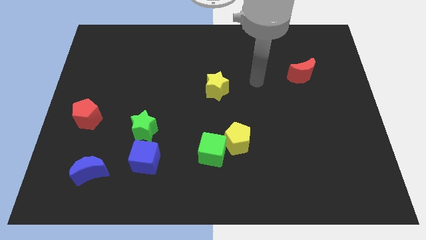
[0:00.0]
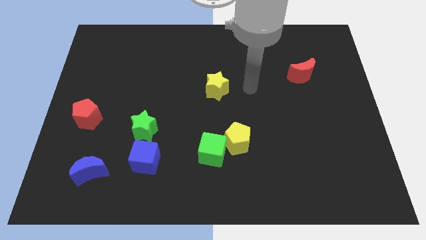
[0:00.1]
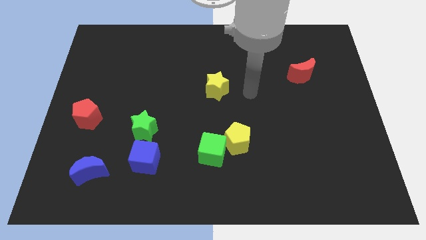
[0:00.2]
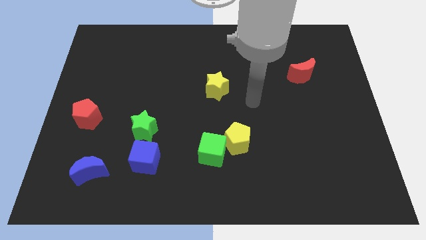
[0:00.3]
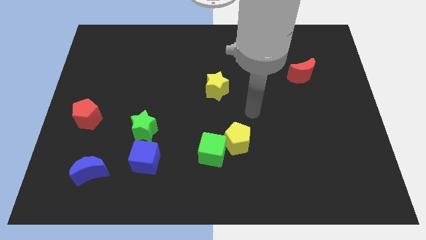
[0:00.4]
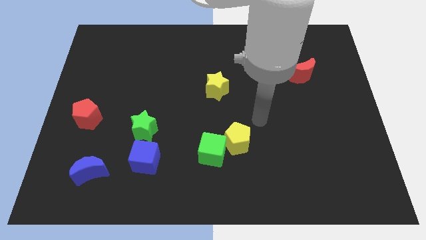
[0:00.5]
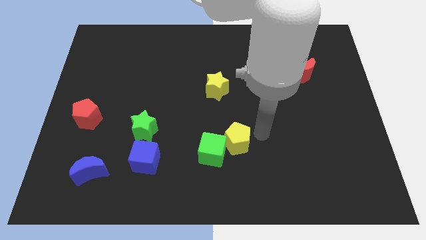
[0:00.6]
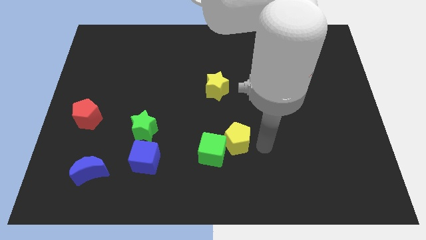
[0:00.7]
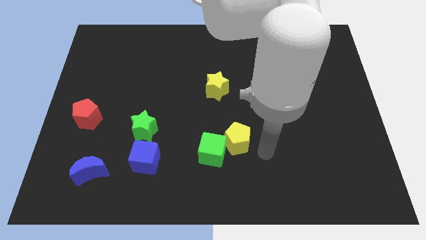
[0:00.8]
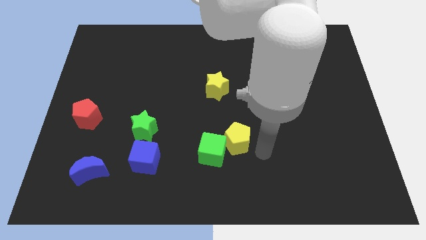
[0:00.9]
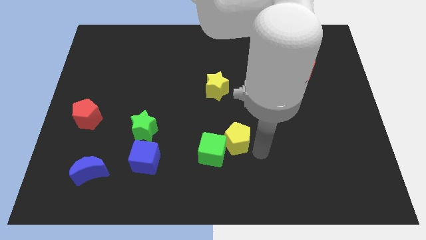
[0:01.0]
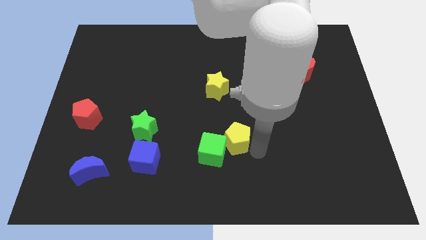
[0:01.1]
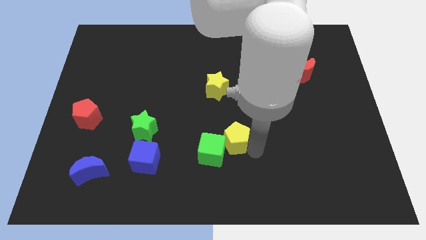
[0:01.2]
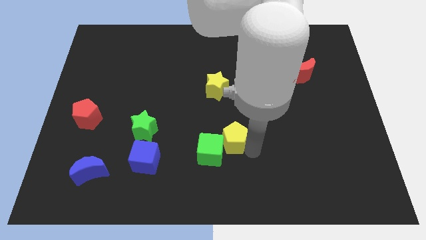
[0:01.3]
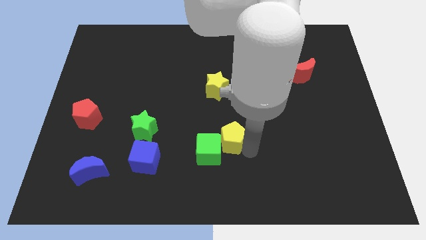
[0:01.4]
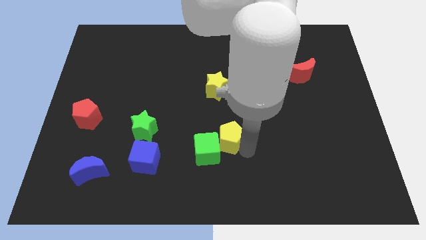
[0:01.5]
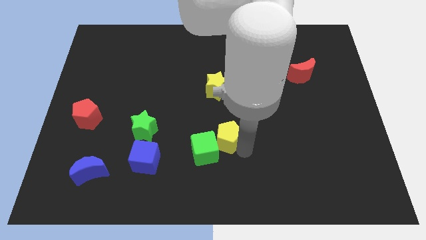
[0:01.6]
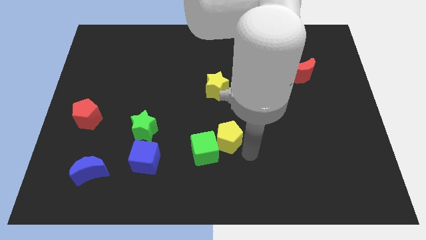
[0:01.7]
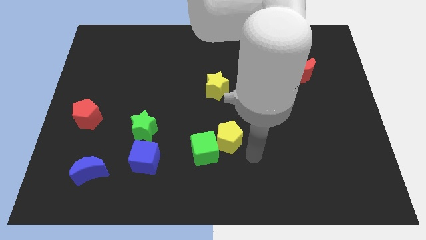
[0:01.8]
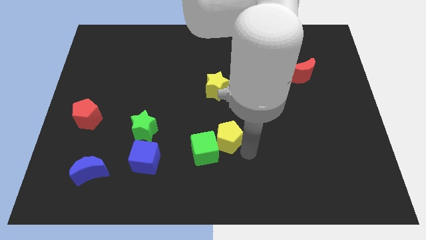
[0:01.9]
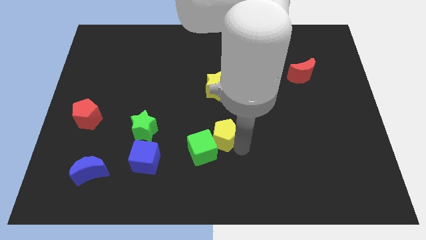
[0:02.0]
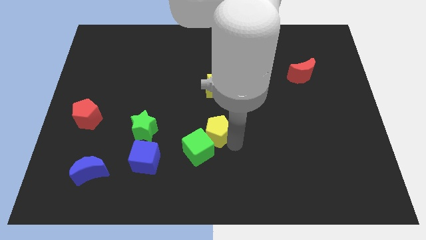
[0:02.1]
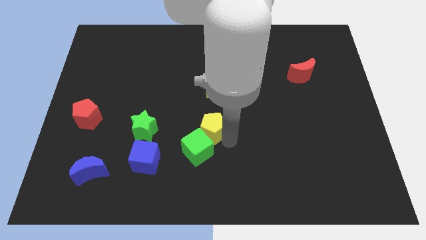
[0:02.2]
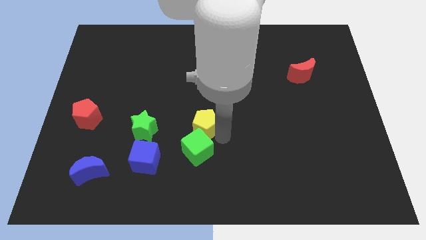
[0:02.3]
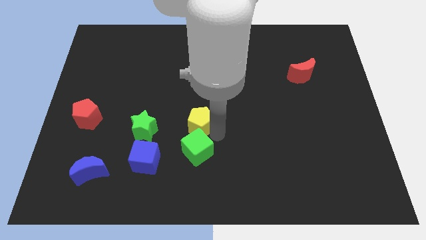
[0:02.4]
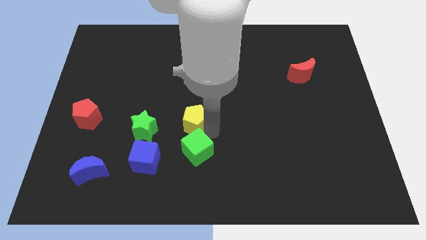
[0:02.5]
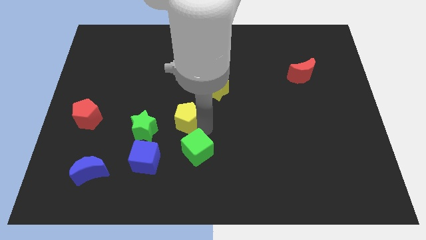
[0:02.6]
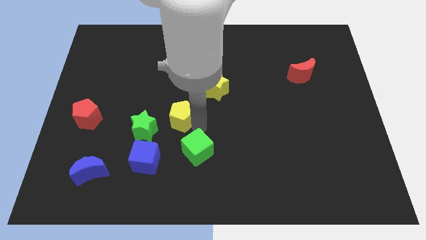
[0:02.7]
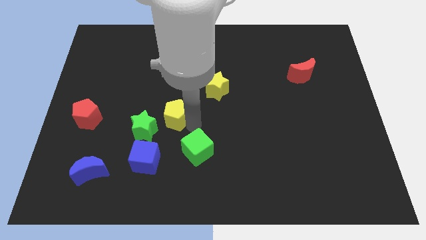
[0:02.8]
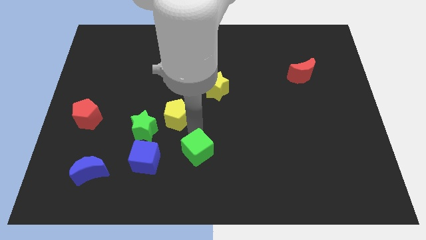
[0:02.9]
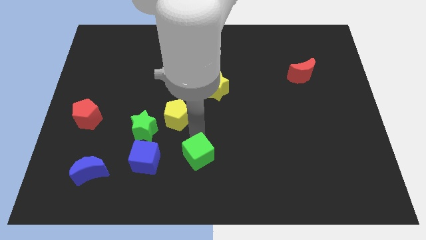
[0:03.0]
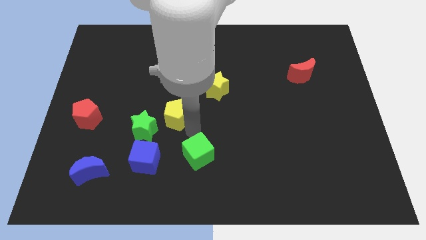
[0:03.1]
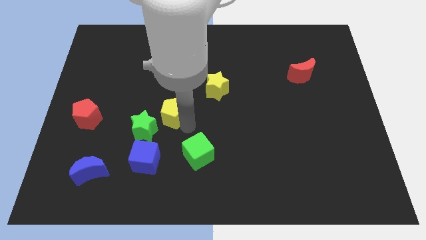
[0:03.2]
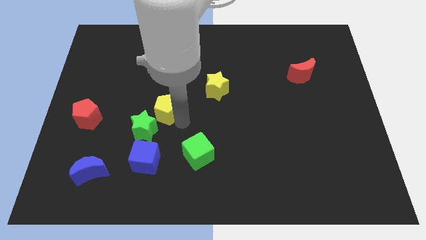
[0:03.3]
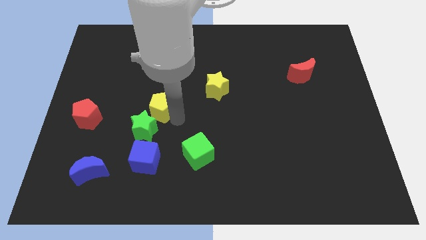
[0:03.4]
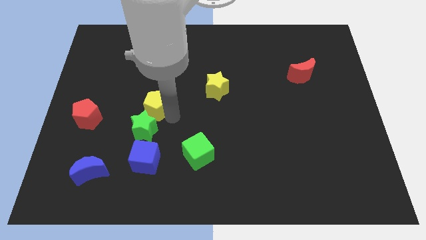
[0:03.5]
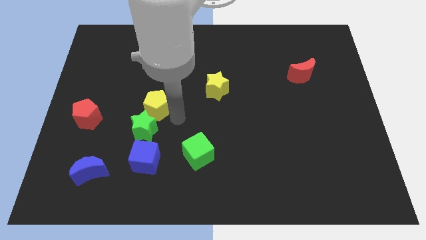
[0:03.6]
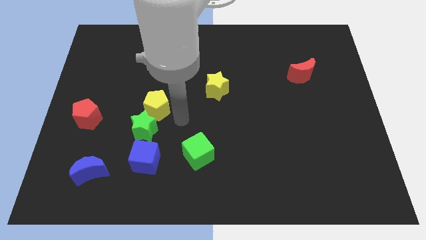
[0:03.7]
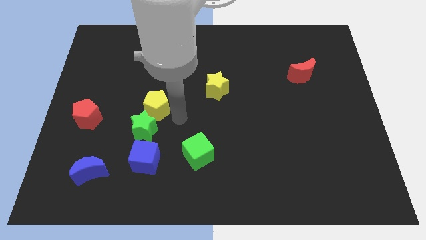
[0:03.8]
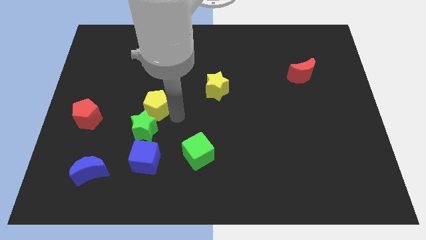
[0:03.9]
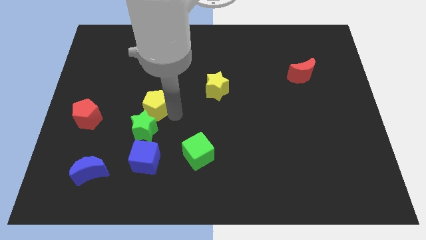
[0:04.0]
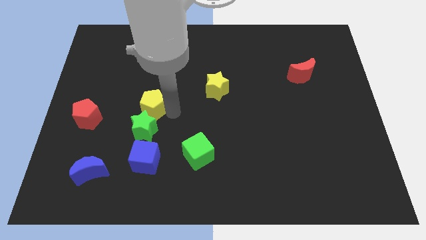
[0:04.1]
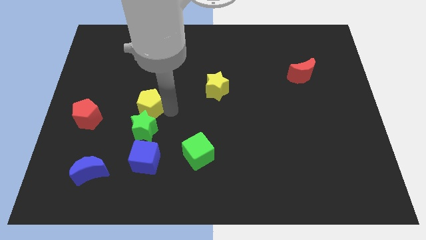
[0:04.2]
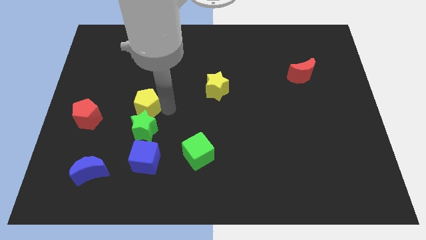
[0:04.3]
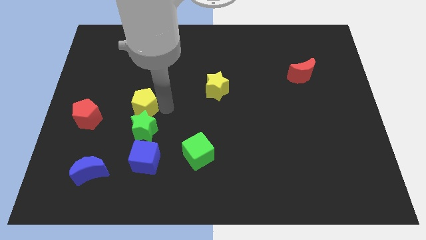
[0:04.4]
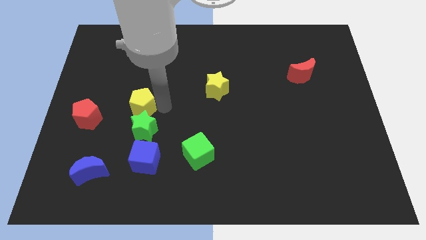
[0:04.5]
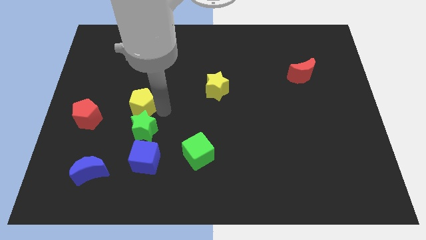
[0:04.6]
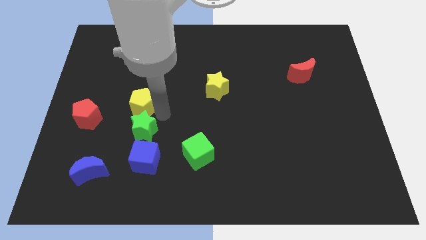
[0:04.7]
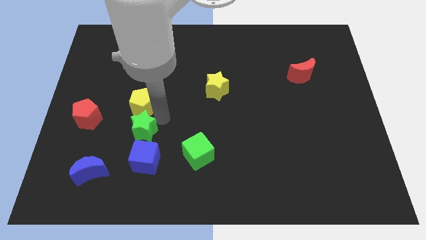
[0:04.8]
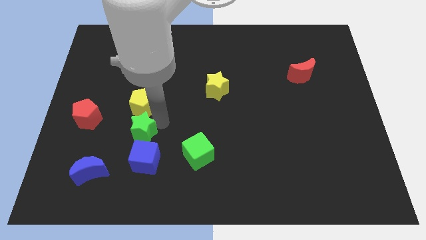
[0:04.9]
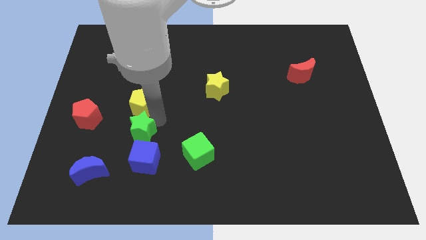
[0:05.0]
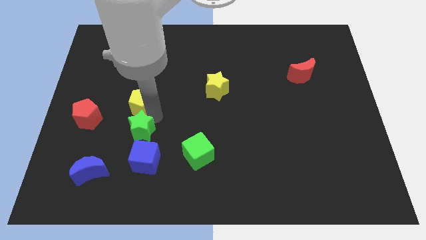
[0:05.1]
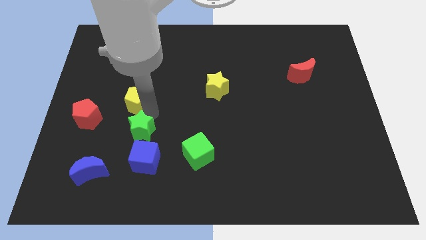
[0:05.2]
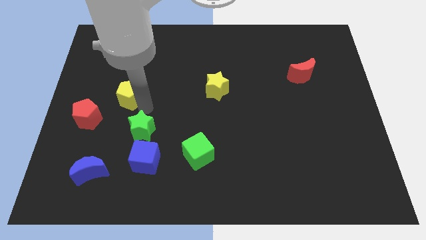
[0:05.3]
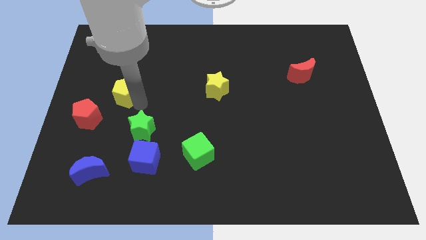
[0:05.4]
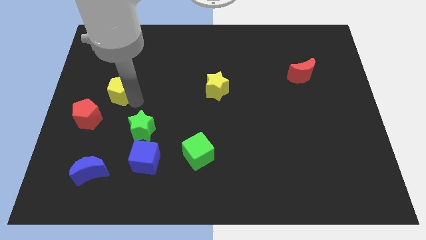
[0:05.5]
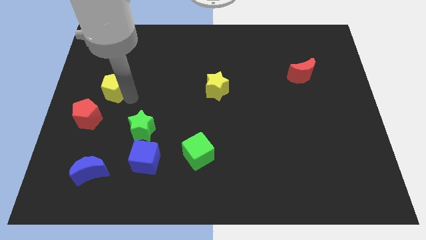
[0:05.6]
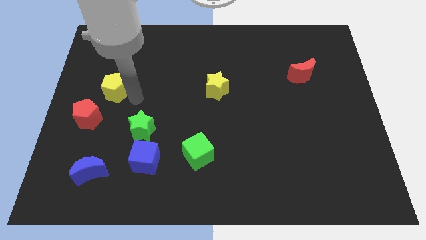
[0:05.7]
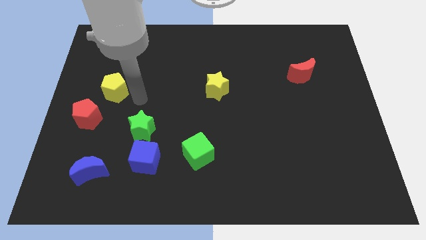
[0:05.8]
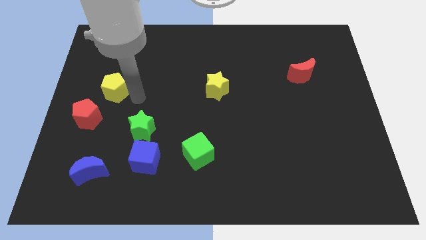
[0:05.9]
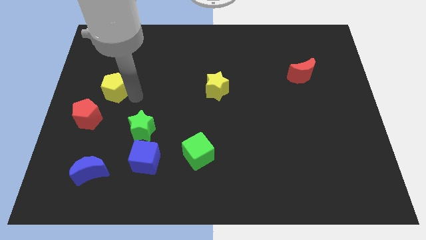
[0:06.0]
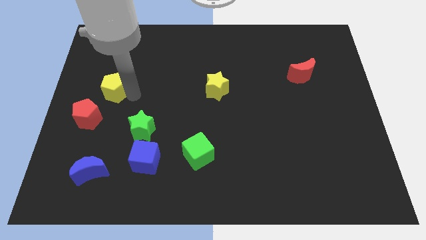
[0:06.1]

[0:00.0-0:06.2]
slide the yellow pentagon above the red pentagon
